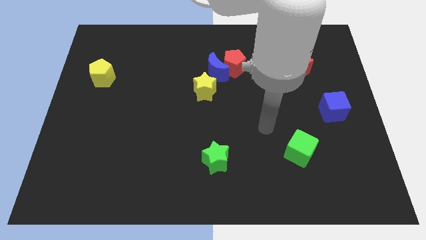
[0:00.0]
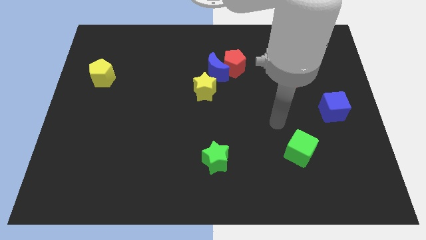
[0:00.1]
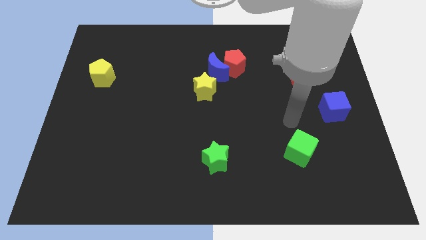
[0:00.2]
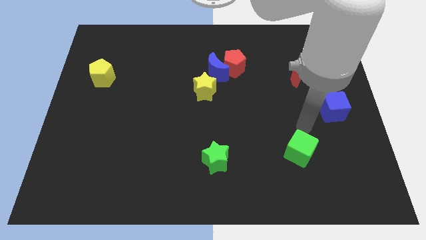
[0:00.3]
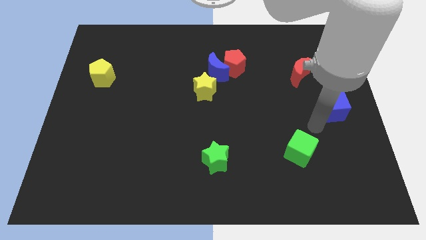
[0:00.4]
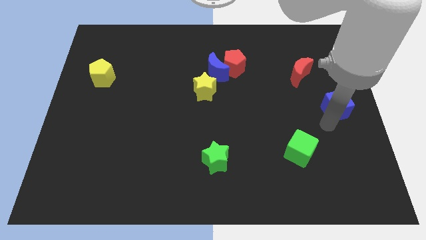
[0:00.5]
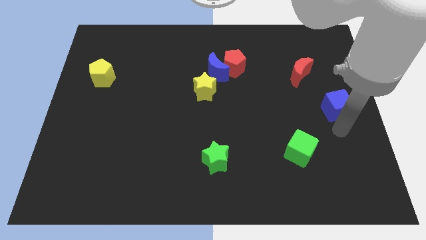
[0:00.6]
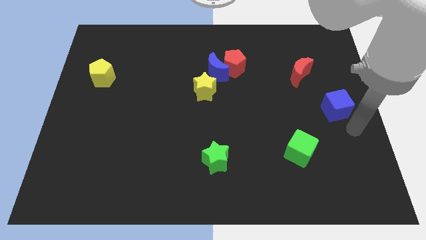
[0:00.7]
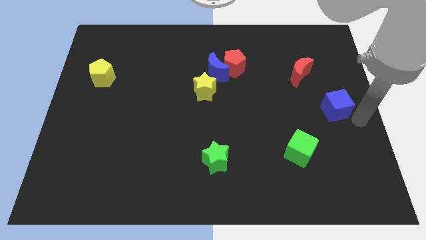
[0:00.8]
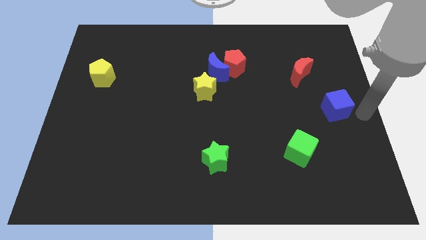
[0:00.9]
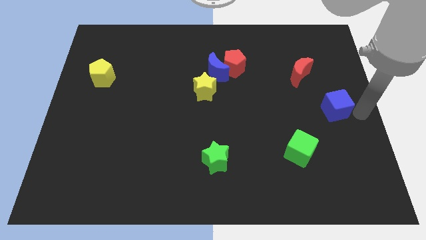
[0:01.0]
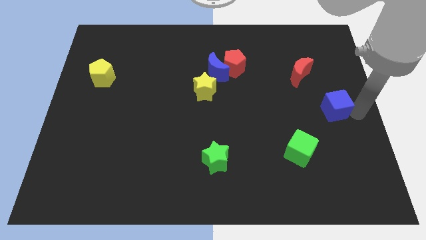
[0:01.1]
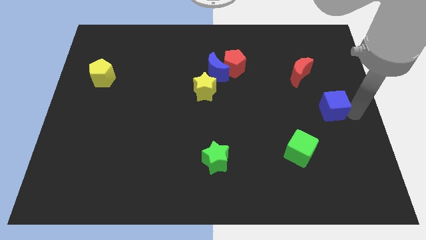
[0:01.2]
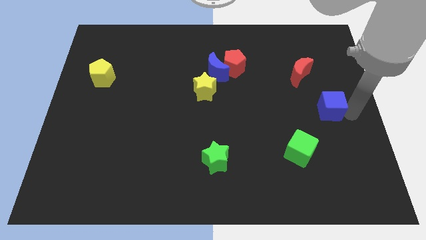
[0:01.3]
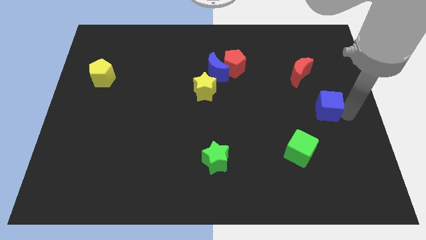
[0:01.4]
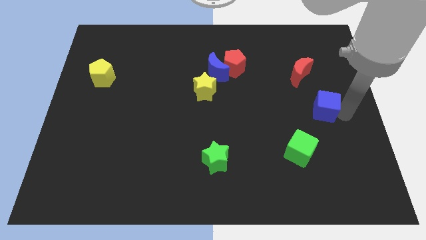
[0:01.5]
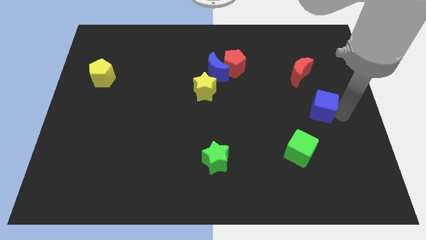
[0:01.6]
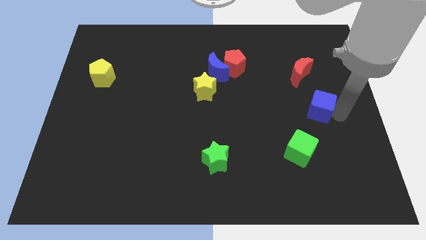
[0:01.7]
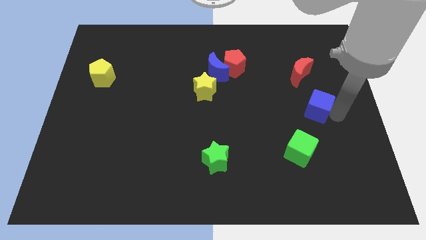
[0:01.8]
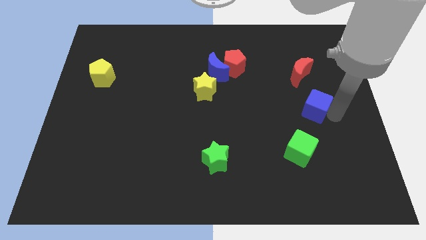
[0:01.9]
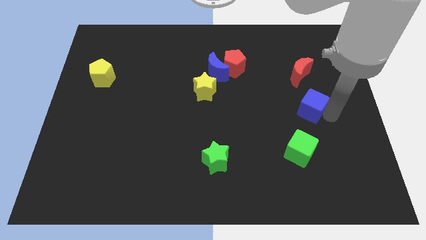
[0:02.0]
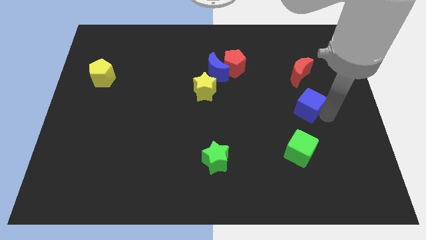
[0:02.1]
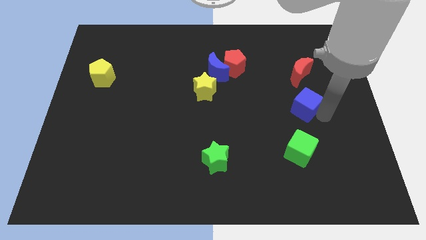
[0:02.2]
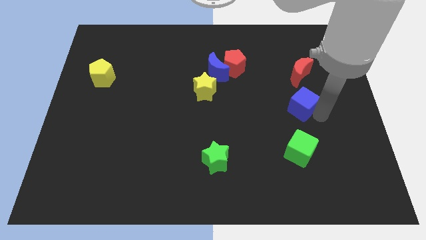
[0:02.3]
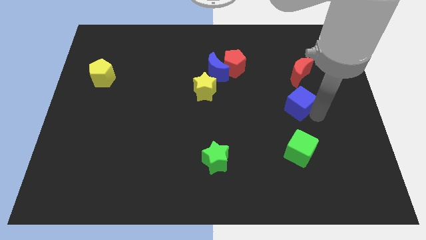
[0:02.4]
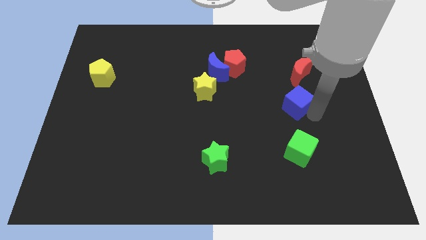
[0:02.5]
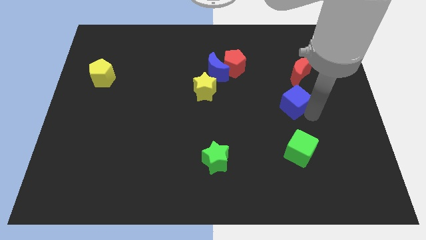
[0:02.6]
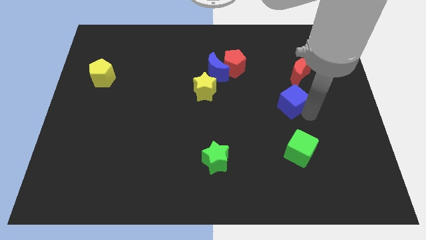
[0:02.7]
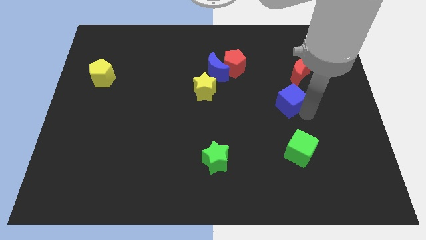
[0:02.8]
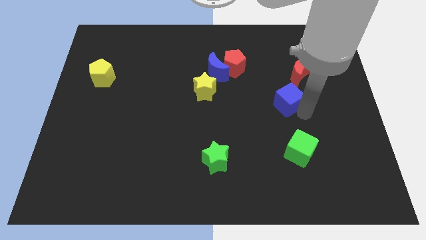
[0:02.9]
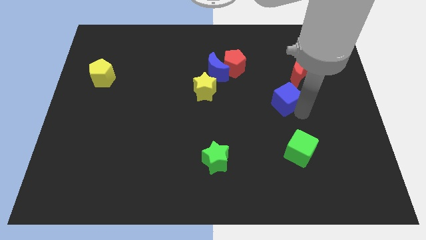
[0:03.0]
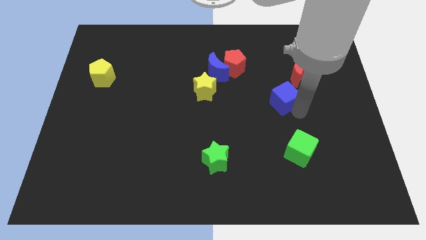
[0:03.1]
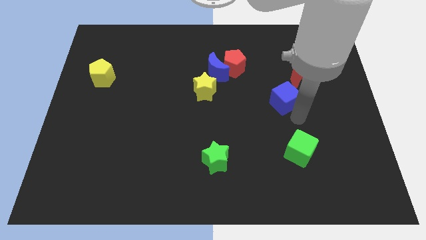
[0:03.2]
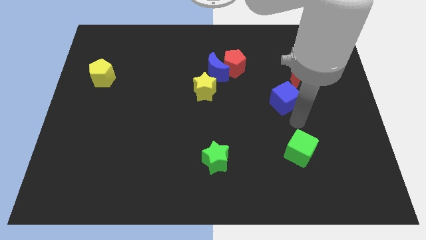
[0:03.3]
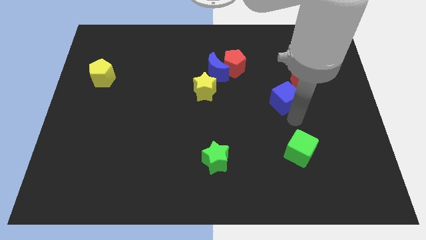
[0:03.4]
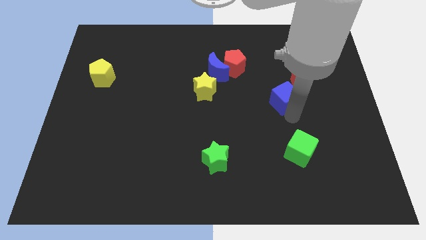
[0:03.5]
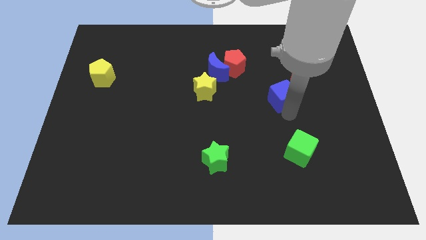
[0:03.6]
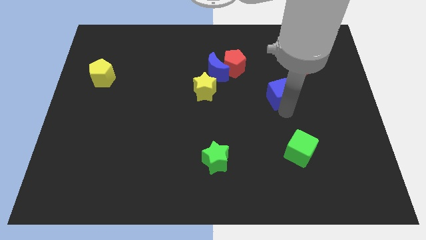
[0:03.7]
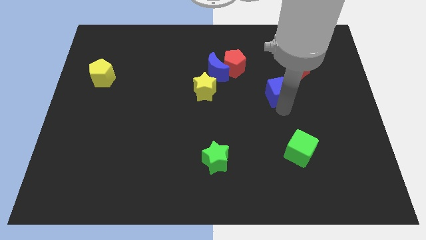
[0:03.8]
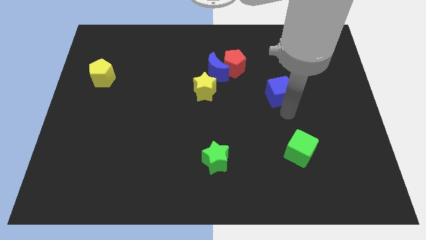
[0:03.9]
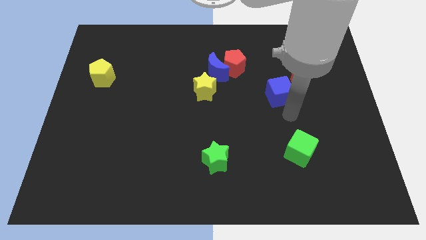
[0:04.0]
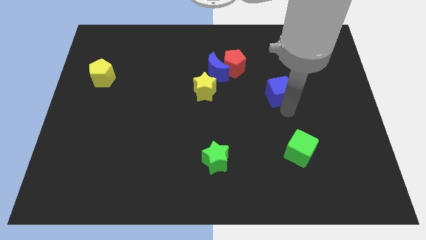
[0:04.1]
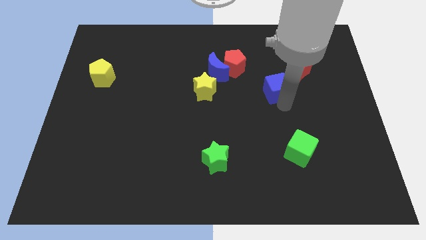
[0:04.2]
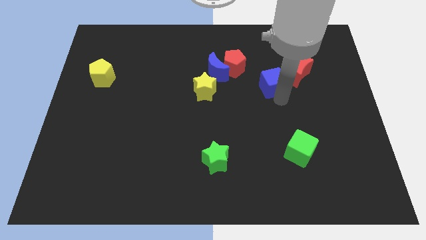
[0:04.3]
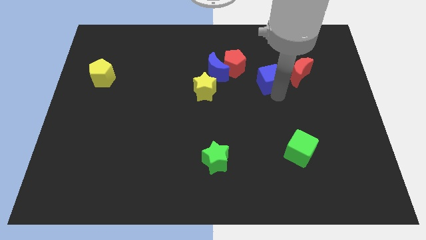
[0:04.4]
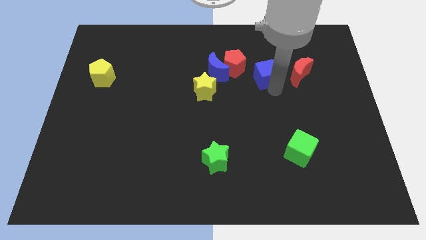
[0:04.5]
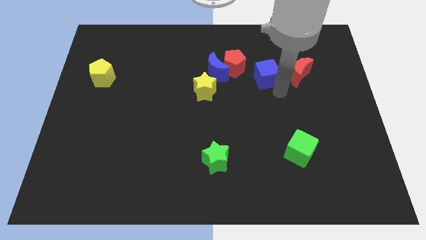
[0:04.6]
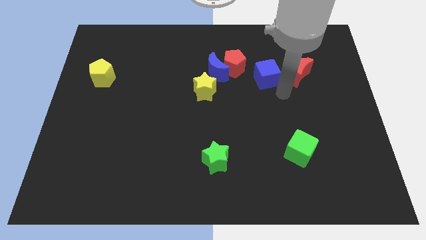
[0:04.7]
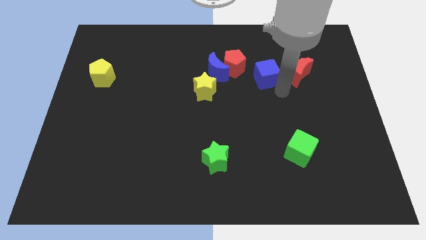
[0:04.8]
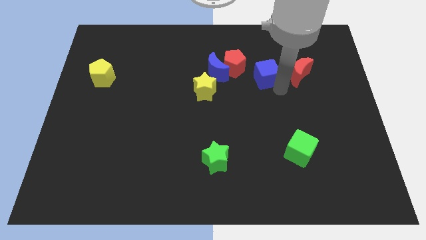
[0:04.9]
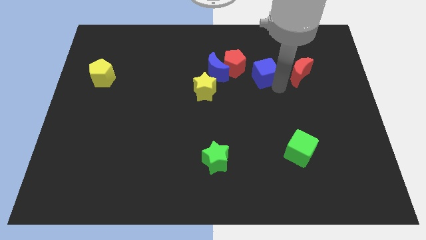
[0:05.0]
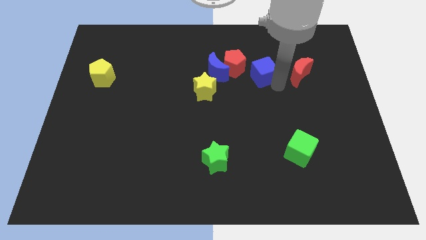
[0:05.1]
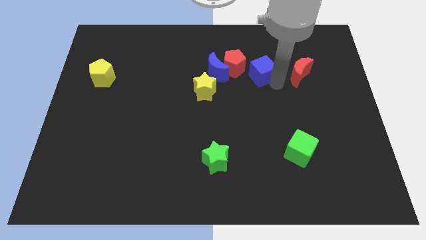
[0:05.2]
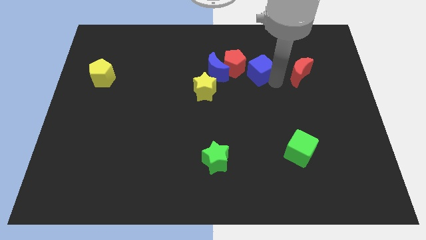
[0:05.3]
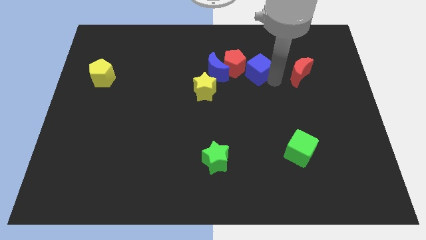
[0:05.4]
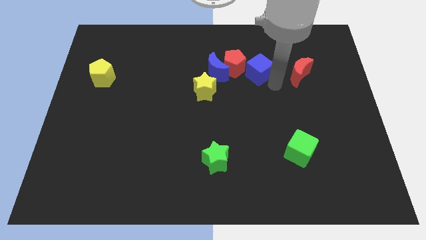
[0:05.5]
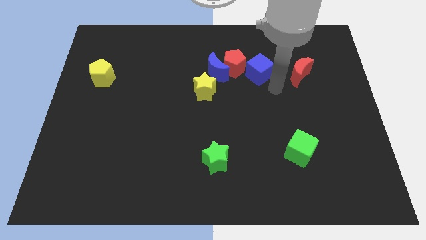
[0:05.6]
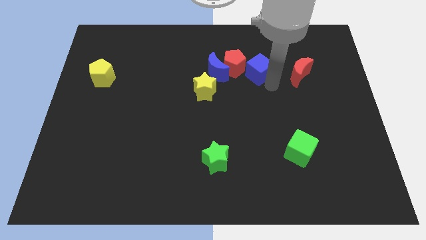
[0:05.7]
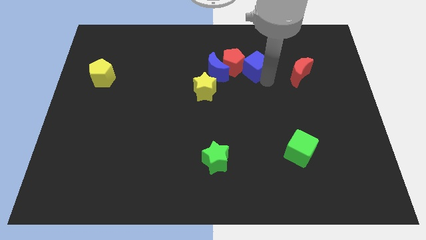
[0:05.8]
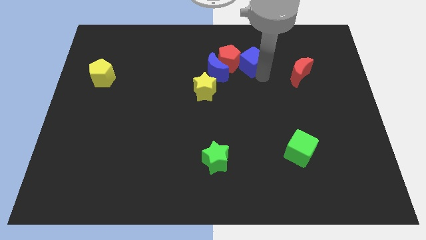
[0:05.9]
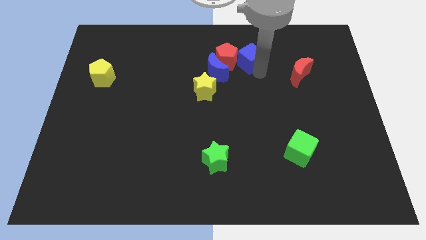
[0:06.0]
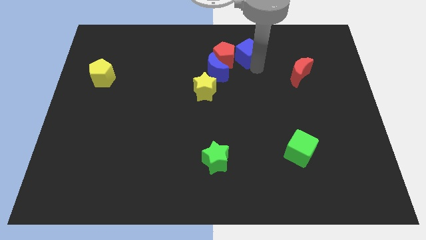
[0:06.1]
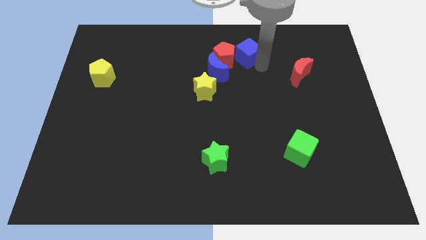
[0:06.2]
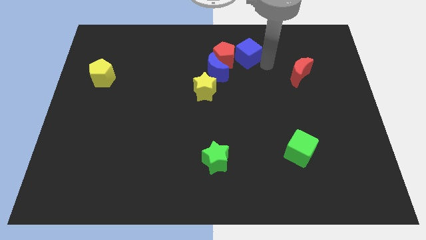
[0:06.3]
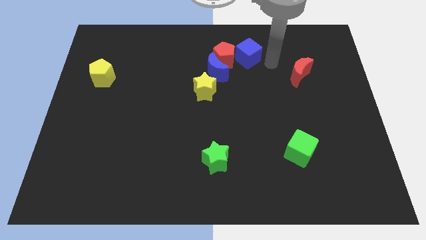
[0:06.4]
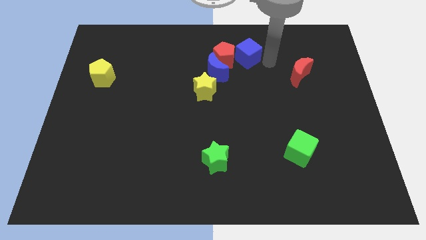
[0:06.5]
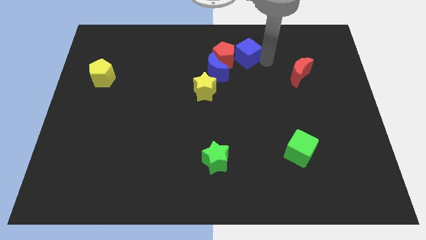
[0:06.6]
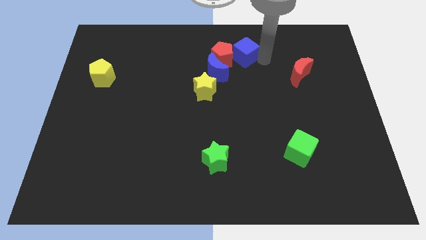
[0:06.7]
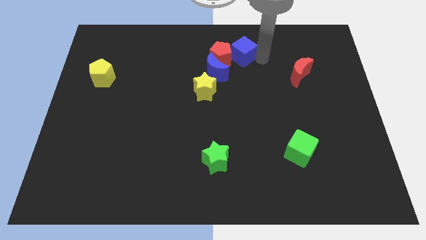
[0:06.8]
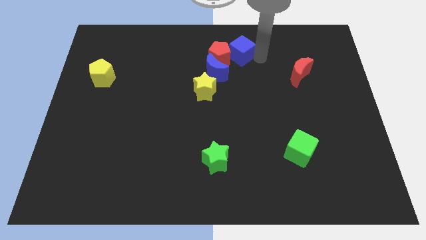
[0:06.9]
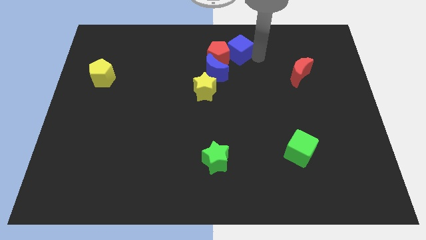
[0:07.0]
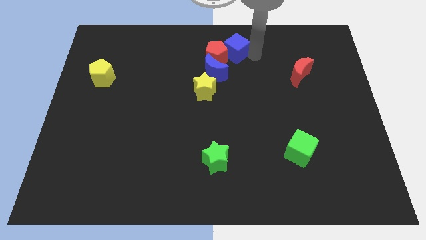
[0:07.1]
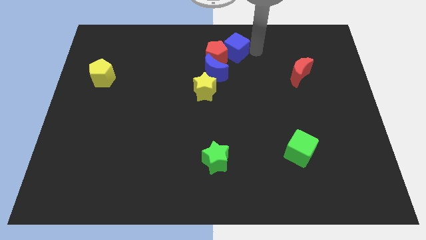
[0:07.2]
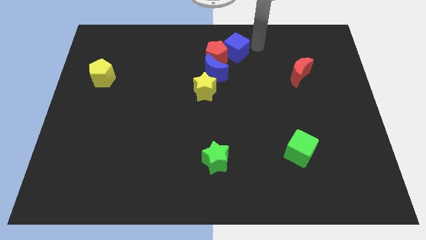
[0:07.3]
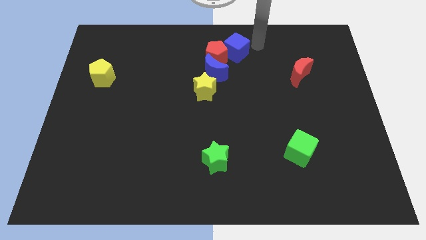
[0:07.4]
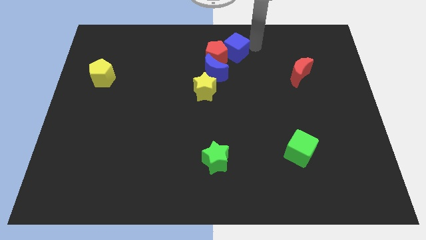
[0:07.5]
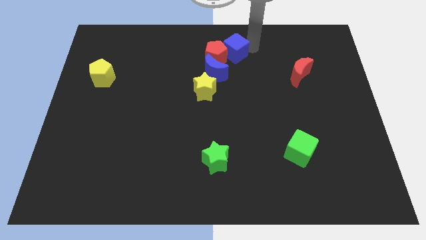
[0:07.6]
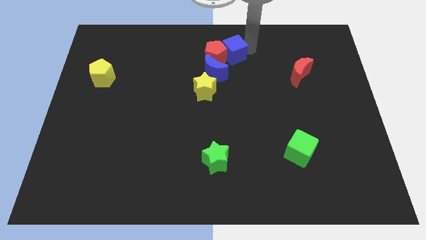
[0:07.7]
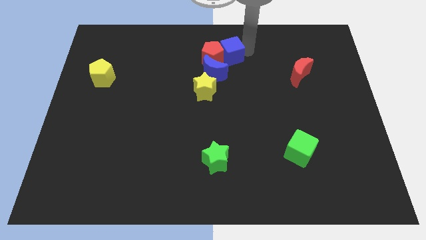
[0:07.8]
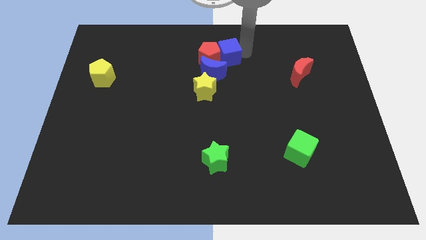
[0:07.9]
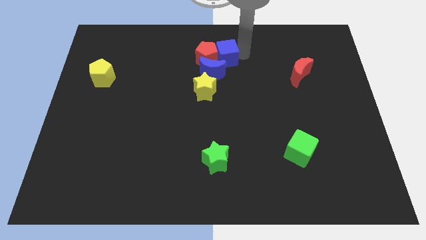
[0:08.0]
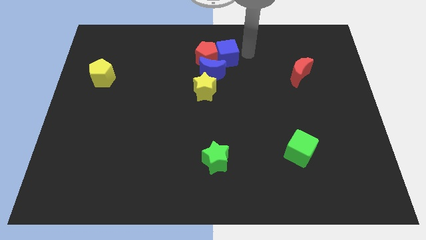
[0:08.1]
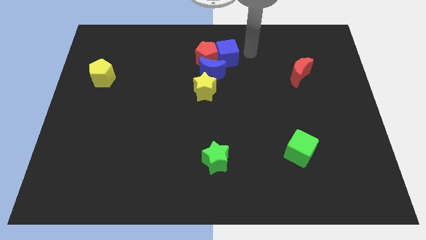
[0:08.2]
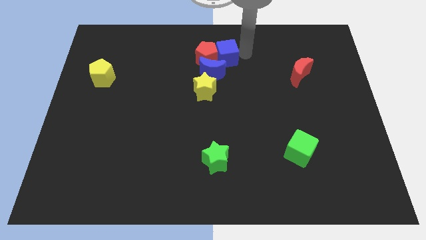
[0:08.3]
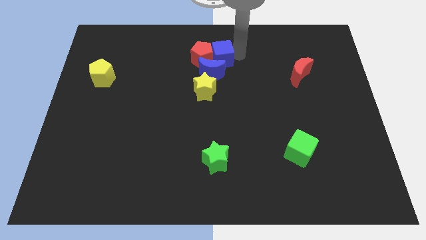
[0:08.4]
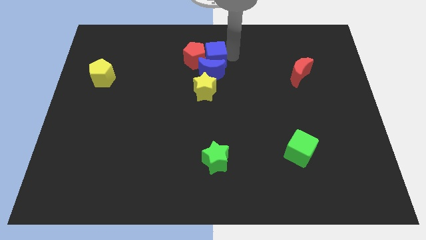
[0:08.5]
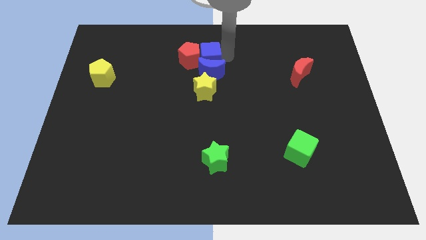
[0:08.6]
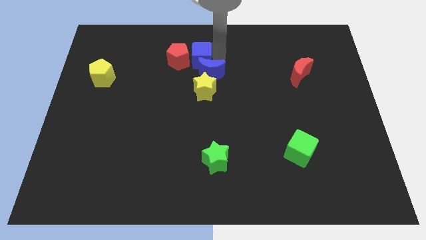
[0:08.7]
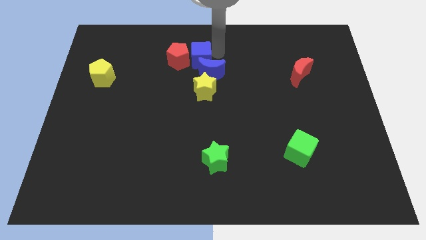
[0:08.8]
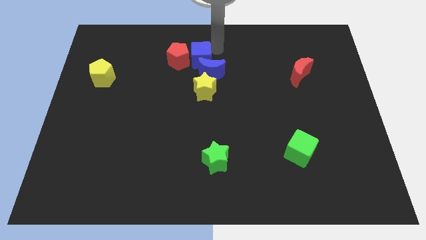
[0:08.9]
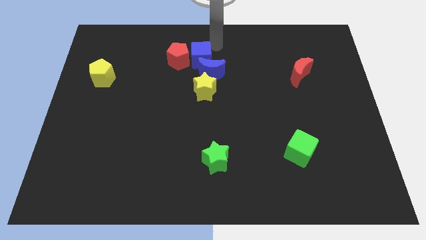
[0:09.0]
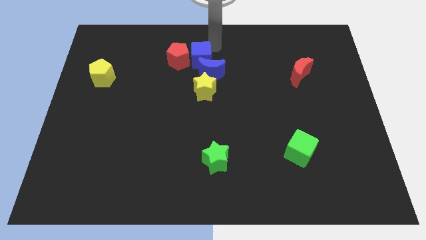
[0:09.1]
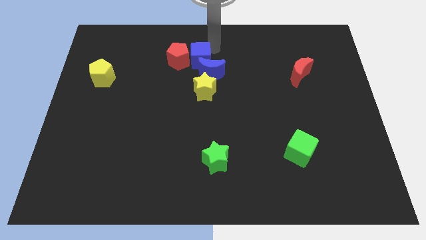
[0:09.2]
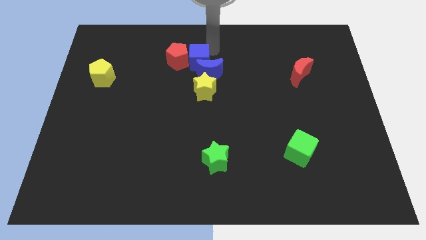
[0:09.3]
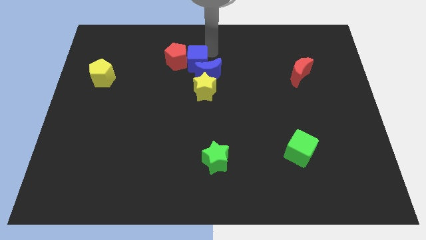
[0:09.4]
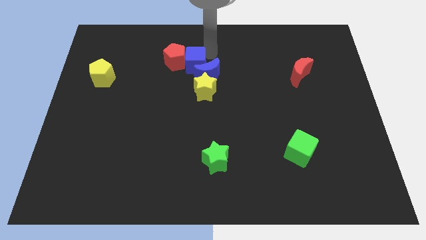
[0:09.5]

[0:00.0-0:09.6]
move the blue cube to the top left of the yellow star
